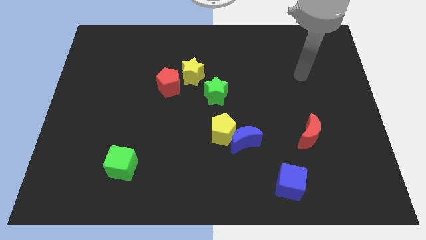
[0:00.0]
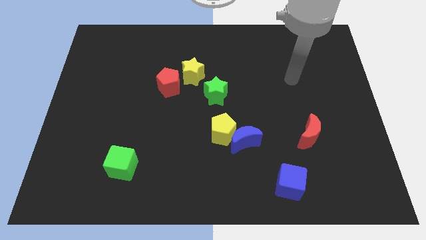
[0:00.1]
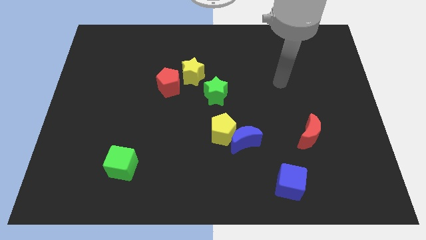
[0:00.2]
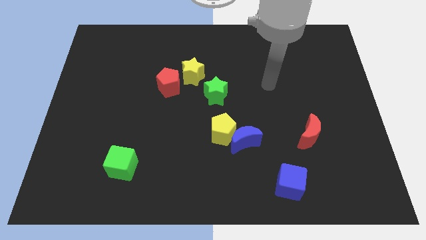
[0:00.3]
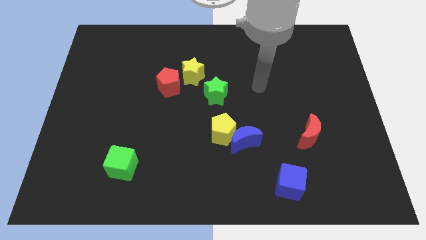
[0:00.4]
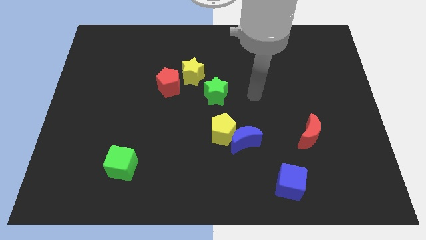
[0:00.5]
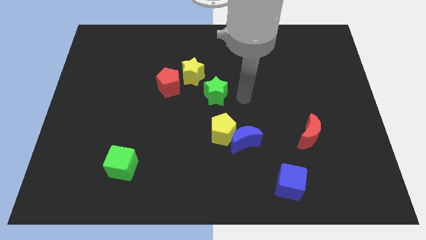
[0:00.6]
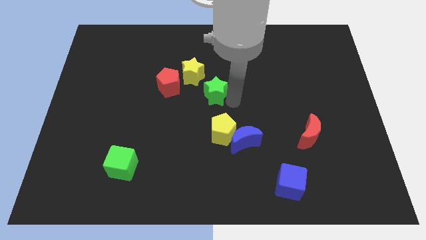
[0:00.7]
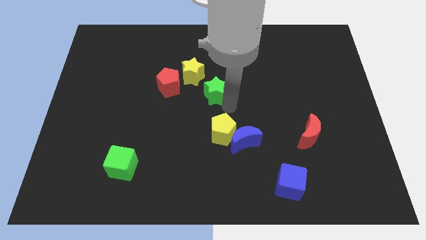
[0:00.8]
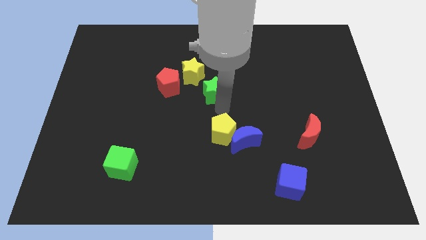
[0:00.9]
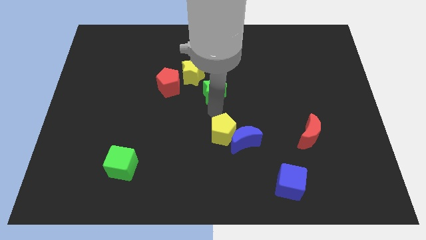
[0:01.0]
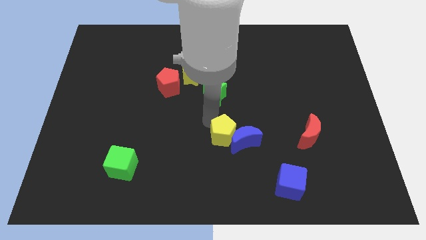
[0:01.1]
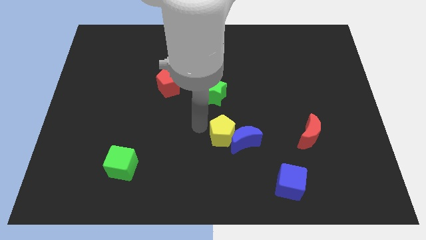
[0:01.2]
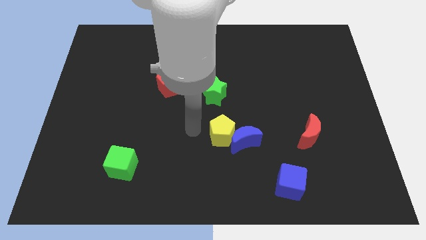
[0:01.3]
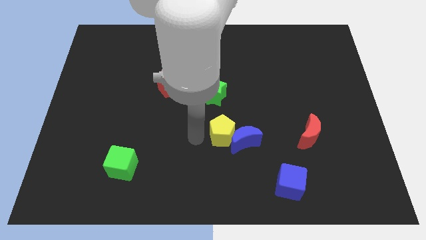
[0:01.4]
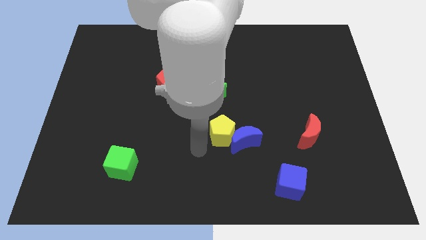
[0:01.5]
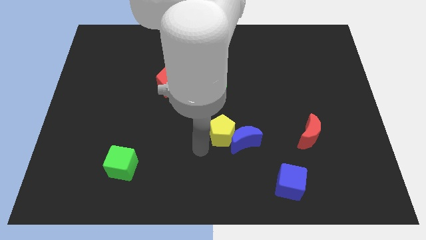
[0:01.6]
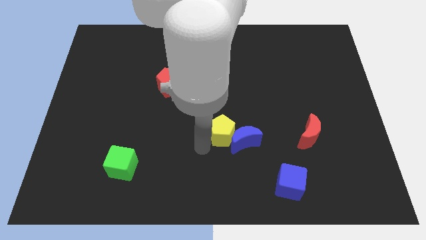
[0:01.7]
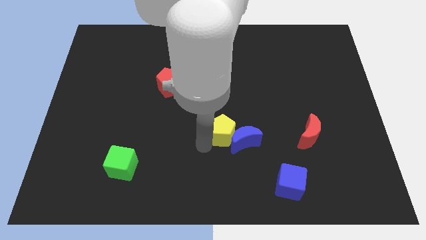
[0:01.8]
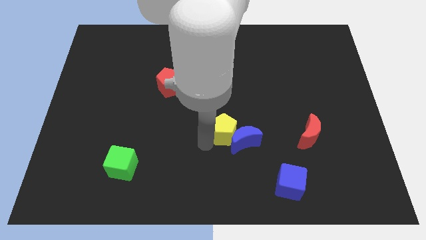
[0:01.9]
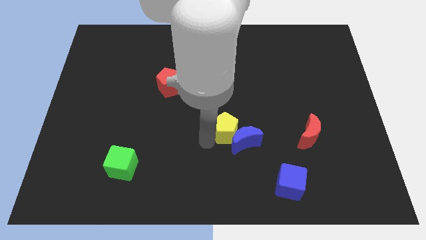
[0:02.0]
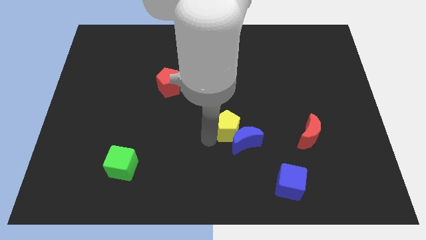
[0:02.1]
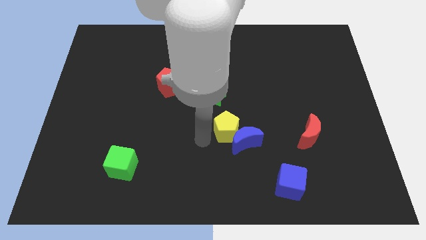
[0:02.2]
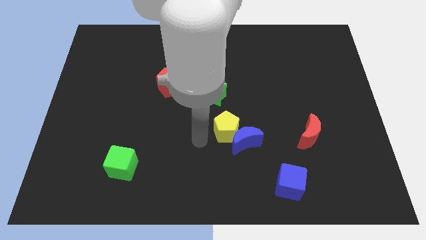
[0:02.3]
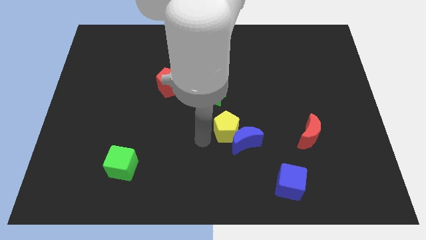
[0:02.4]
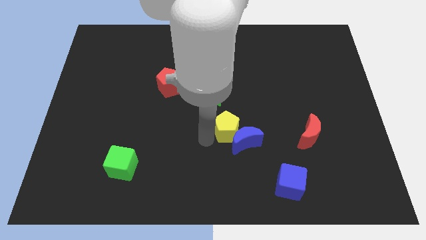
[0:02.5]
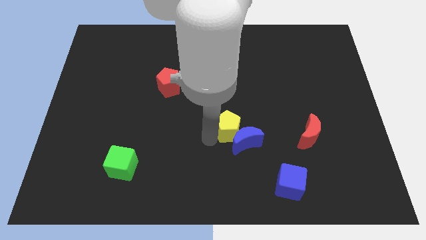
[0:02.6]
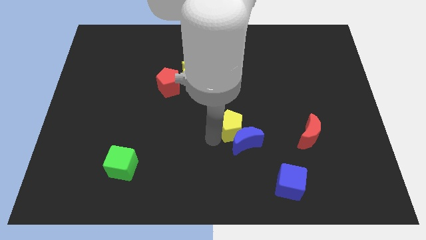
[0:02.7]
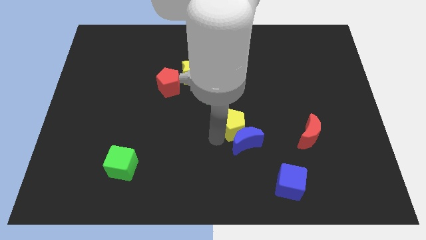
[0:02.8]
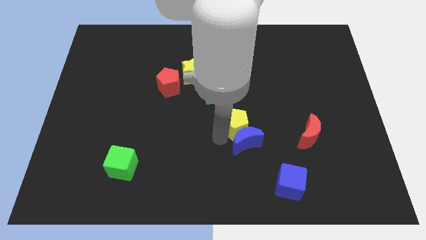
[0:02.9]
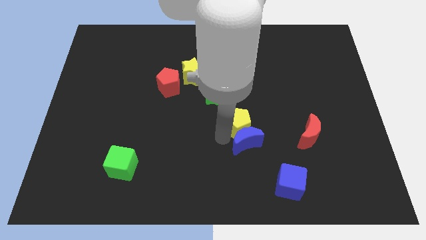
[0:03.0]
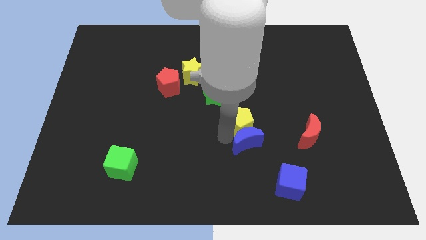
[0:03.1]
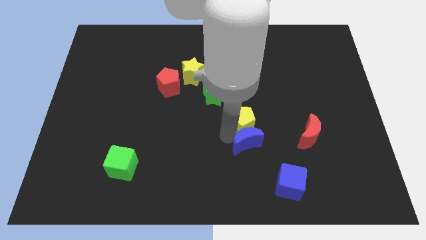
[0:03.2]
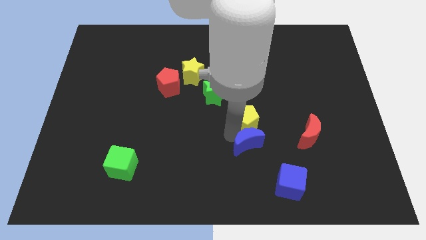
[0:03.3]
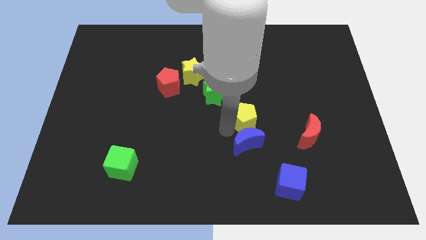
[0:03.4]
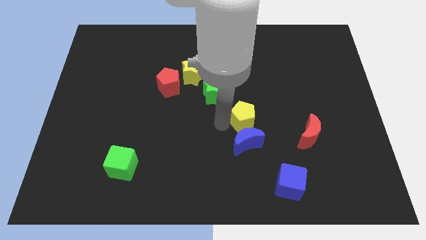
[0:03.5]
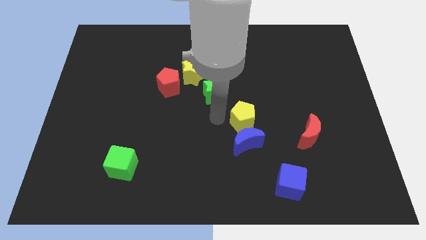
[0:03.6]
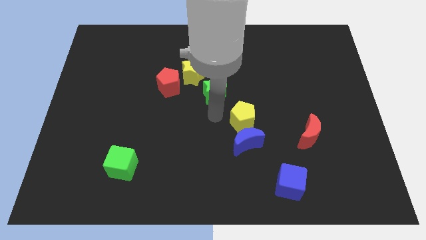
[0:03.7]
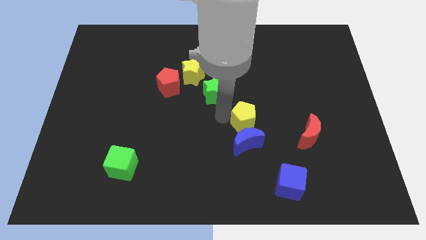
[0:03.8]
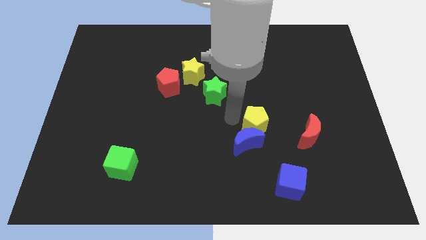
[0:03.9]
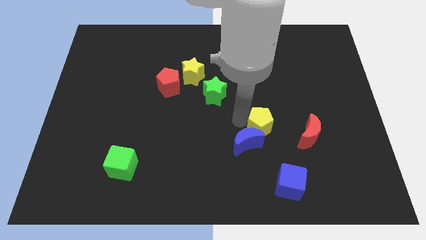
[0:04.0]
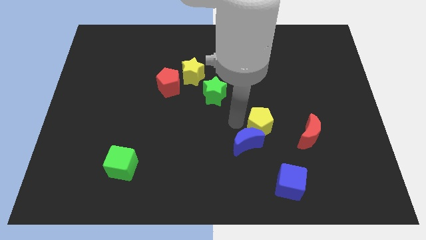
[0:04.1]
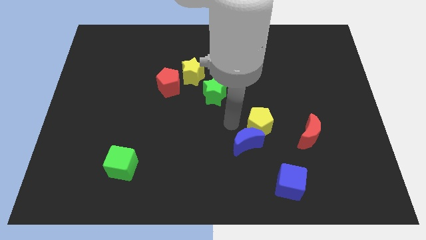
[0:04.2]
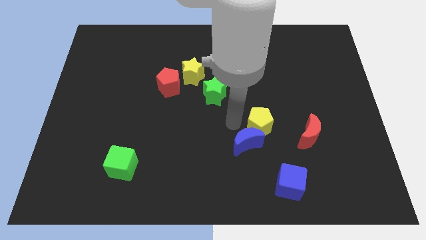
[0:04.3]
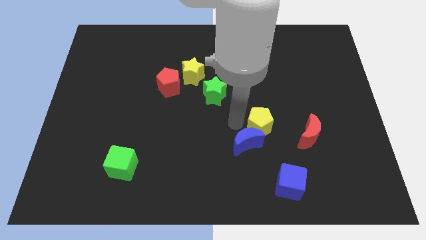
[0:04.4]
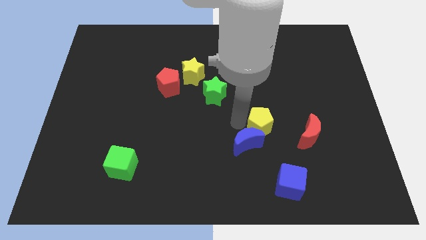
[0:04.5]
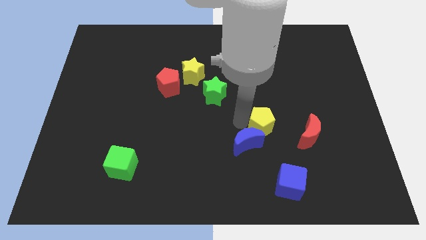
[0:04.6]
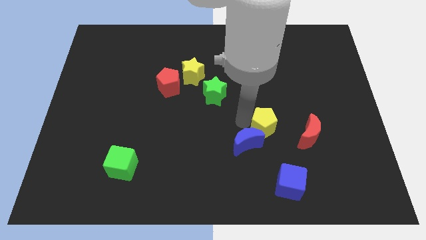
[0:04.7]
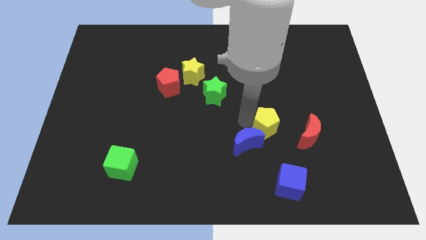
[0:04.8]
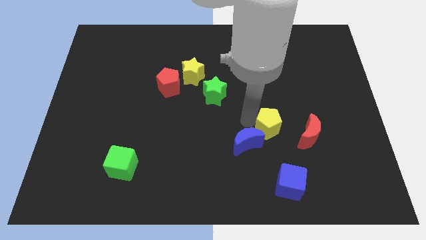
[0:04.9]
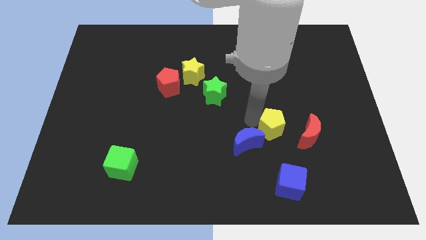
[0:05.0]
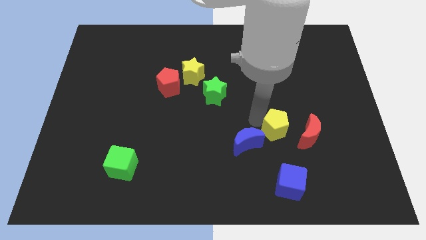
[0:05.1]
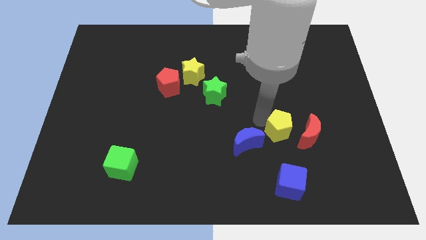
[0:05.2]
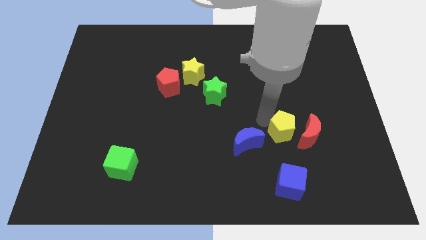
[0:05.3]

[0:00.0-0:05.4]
move the yellow pentagon next to the red moon

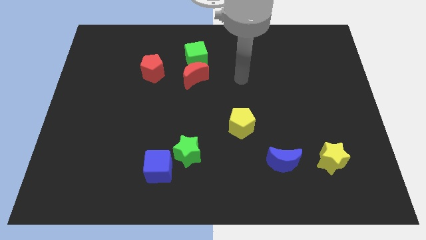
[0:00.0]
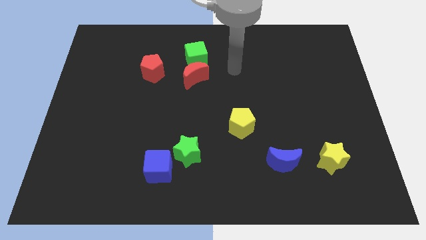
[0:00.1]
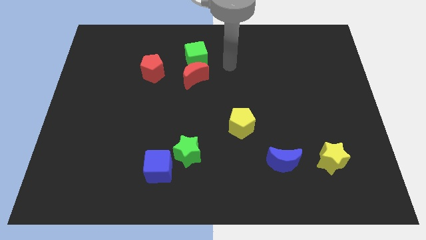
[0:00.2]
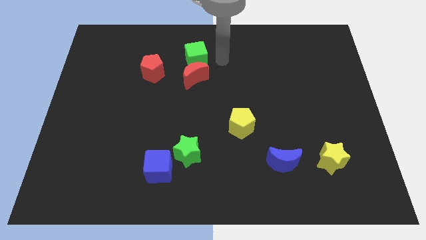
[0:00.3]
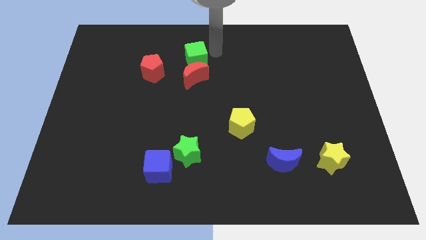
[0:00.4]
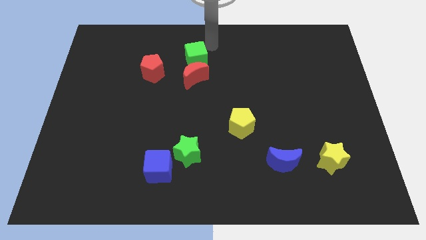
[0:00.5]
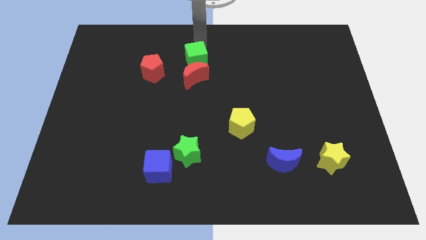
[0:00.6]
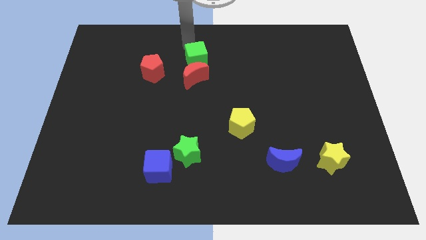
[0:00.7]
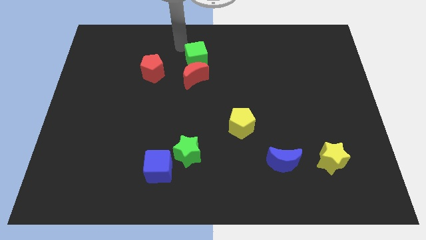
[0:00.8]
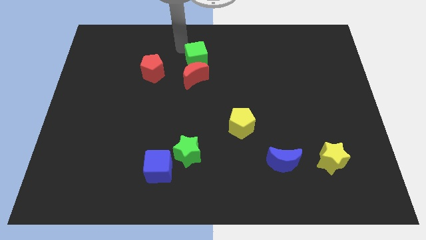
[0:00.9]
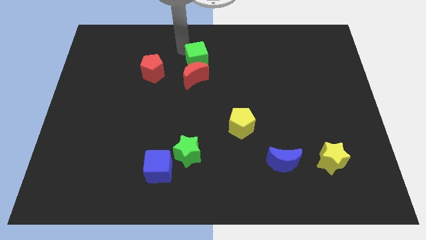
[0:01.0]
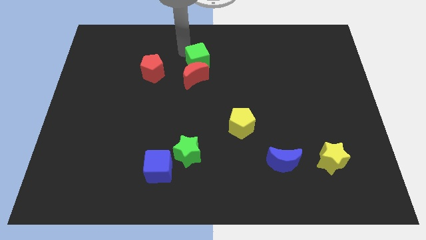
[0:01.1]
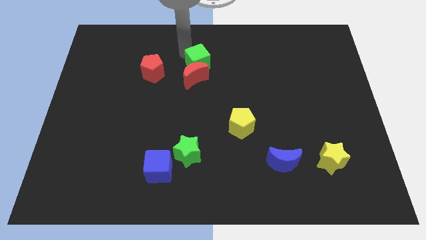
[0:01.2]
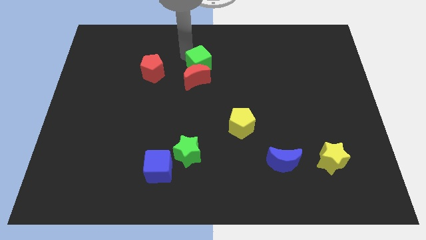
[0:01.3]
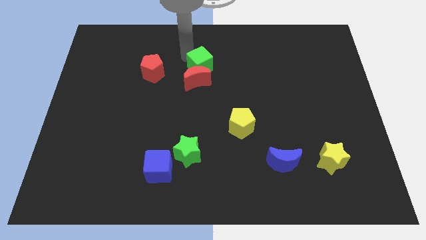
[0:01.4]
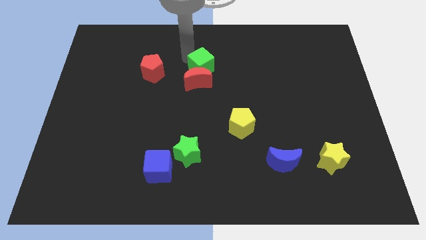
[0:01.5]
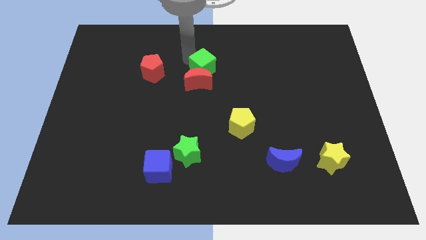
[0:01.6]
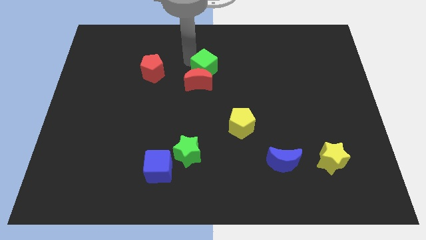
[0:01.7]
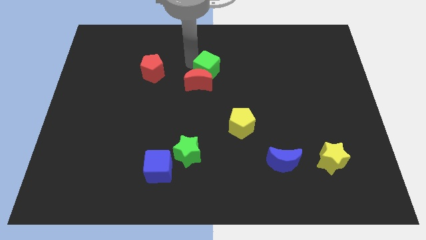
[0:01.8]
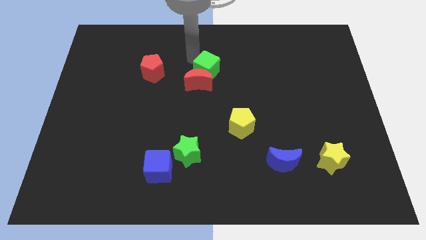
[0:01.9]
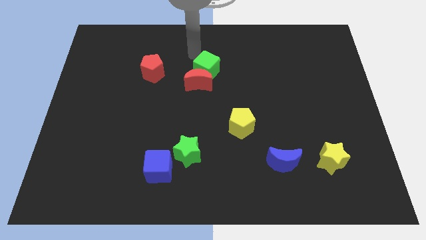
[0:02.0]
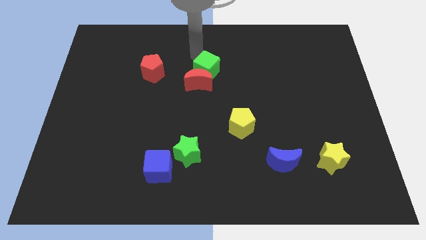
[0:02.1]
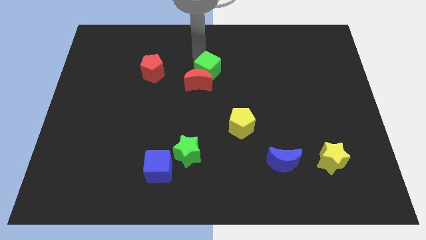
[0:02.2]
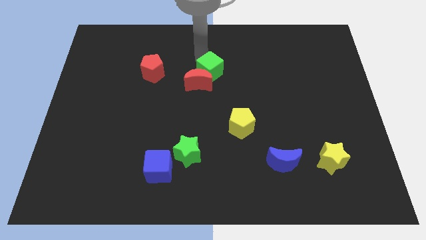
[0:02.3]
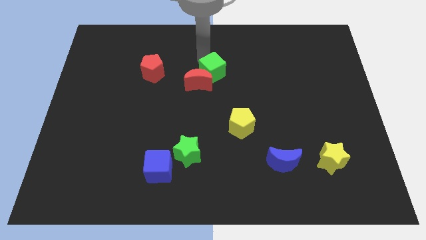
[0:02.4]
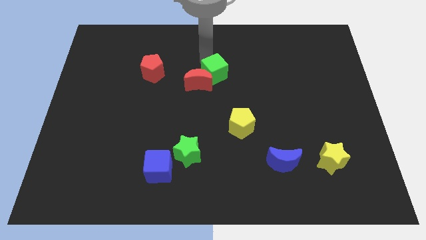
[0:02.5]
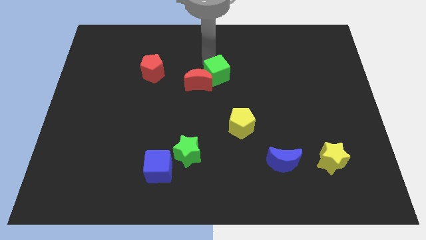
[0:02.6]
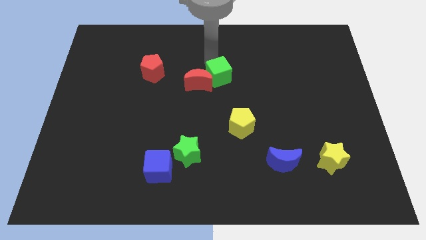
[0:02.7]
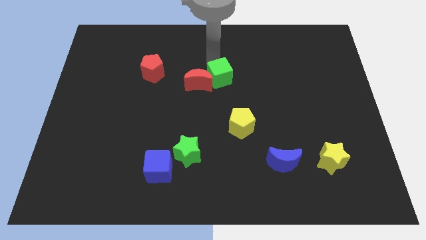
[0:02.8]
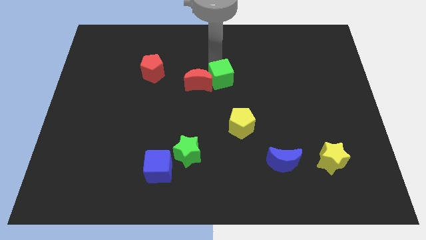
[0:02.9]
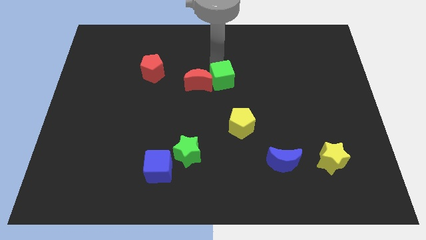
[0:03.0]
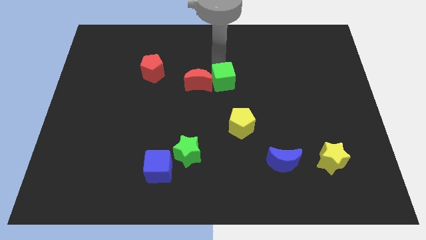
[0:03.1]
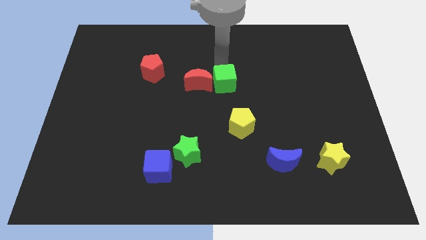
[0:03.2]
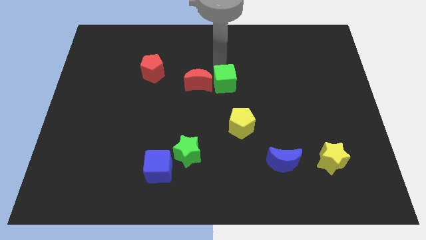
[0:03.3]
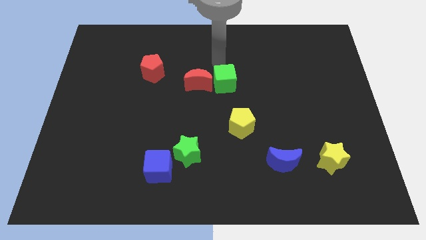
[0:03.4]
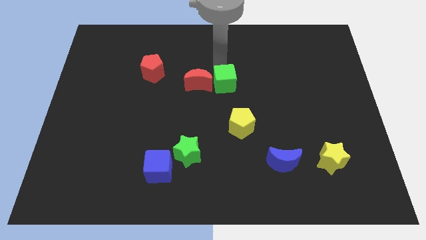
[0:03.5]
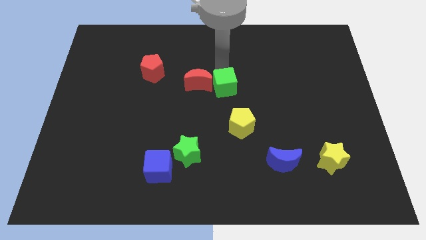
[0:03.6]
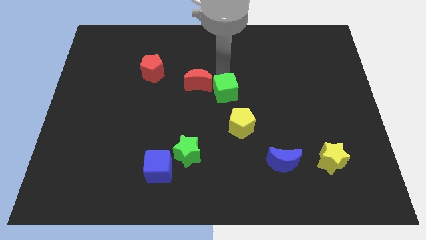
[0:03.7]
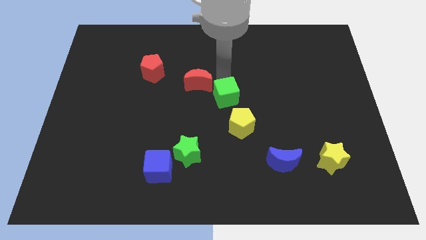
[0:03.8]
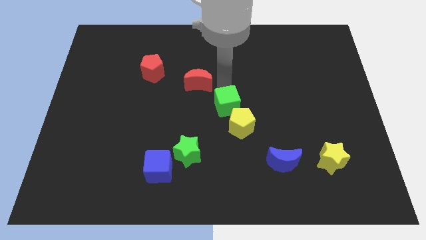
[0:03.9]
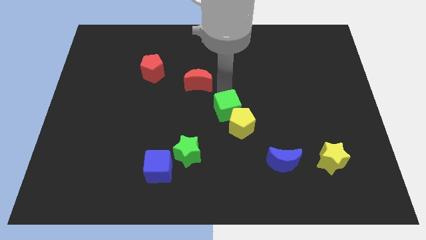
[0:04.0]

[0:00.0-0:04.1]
move the green cube next to the yellow pentagon
